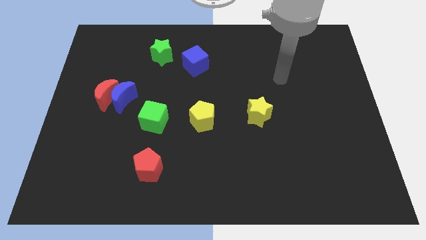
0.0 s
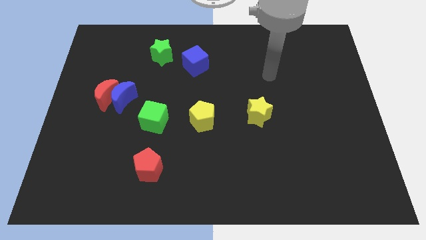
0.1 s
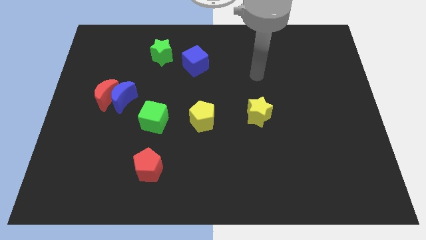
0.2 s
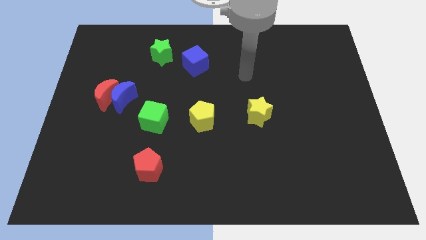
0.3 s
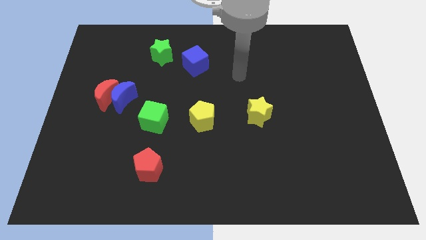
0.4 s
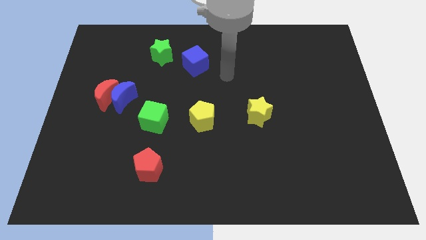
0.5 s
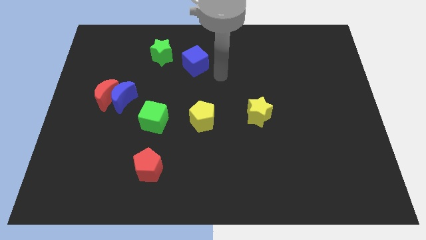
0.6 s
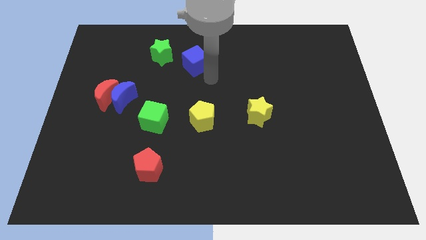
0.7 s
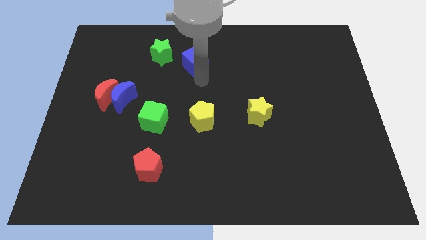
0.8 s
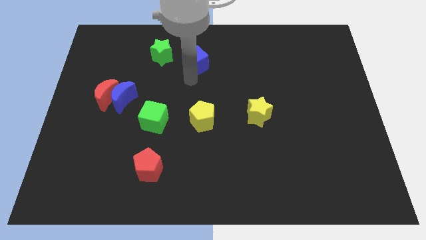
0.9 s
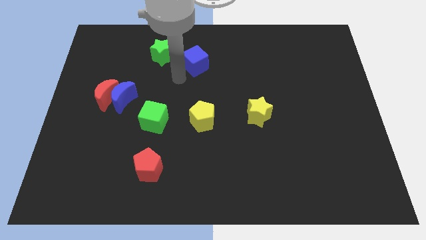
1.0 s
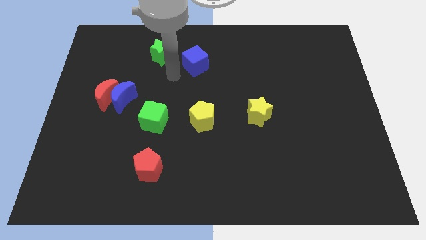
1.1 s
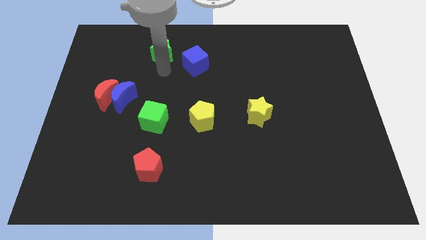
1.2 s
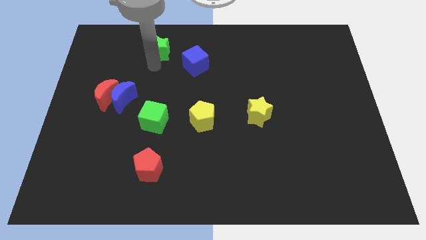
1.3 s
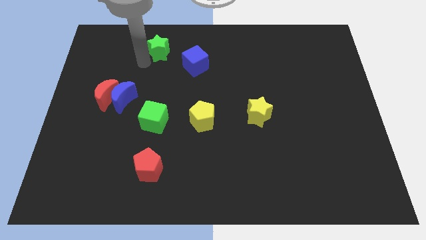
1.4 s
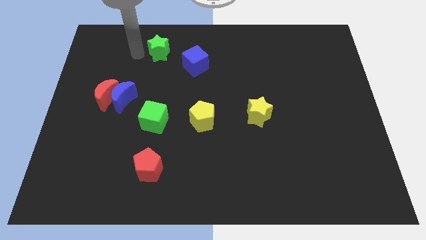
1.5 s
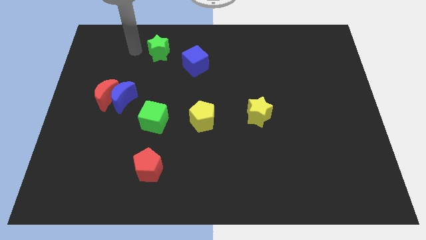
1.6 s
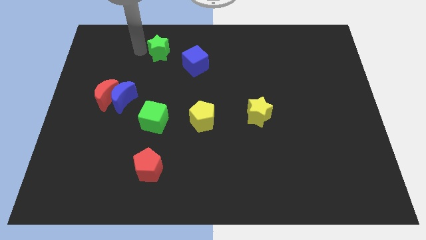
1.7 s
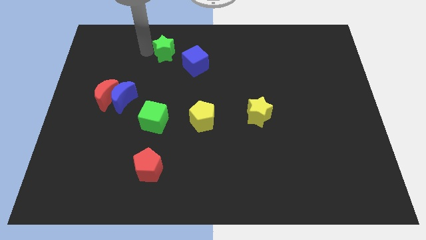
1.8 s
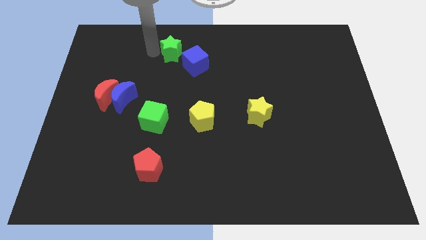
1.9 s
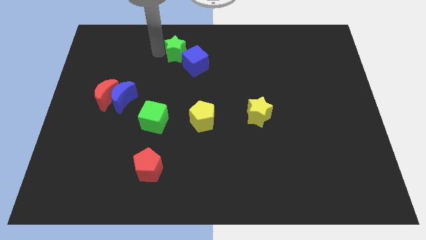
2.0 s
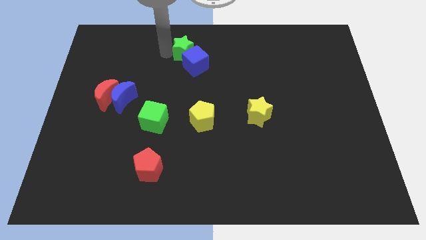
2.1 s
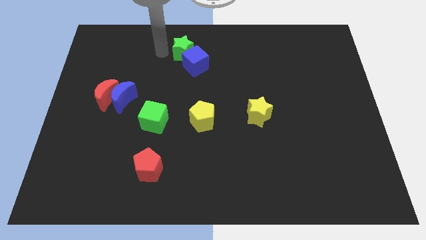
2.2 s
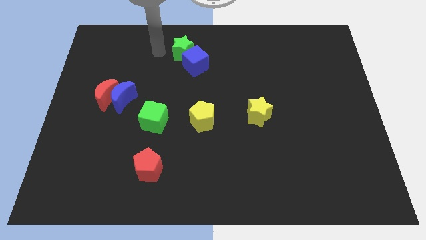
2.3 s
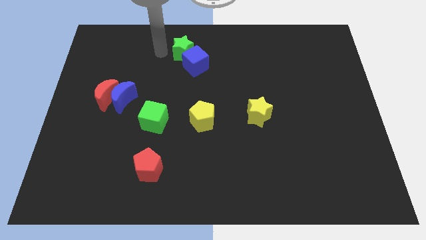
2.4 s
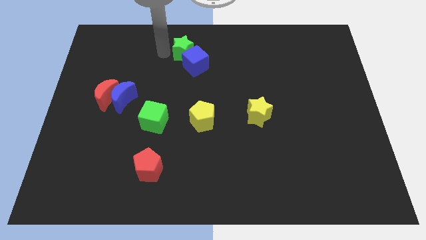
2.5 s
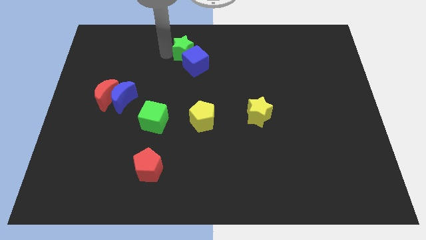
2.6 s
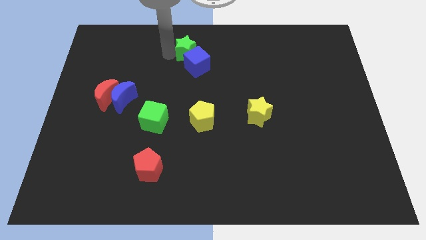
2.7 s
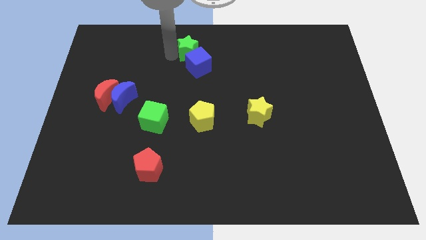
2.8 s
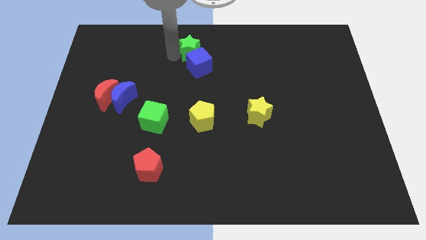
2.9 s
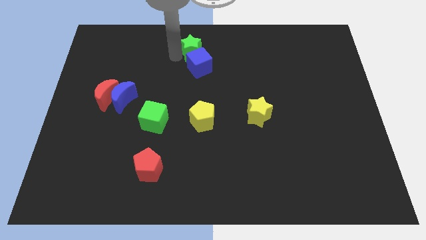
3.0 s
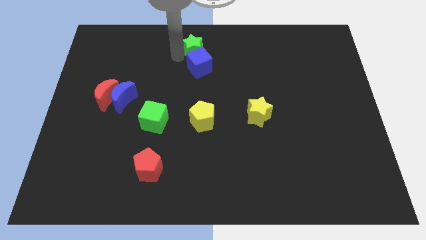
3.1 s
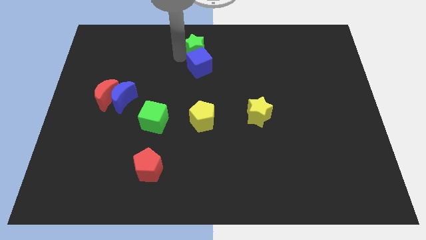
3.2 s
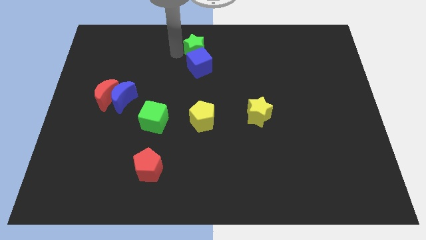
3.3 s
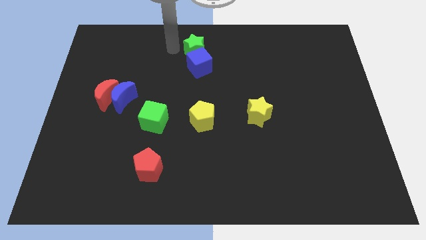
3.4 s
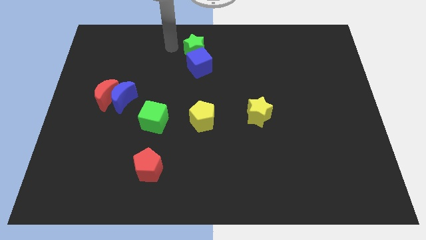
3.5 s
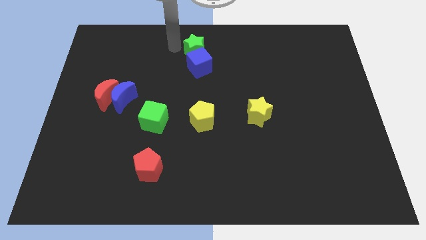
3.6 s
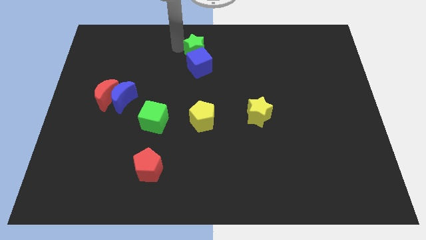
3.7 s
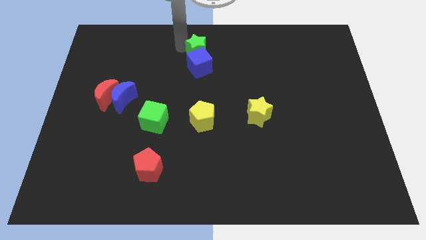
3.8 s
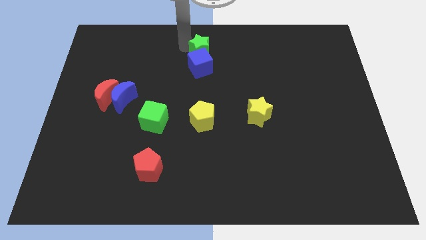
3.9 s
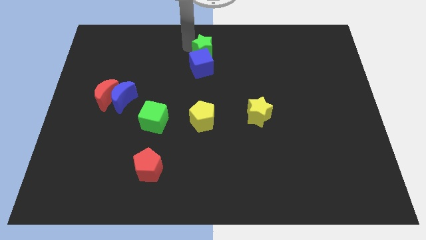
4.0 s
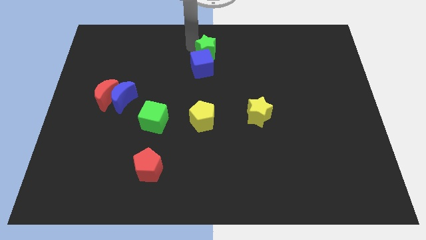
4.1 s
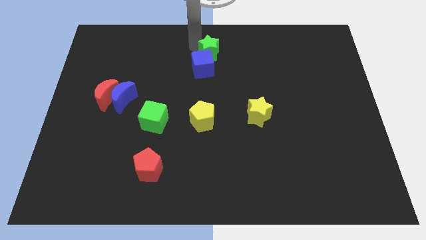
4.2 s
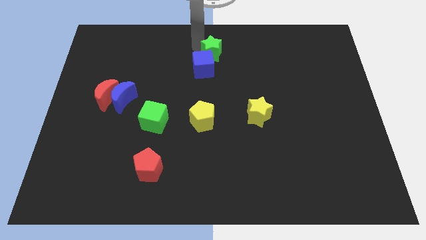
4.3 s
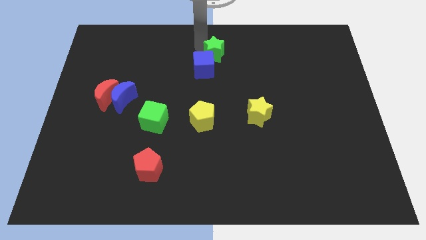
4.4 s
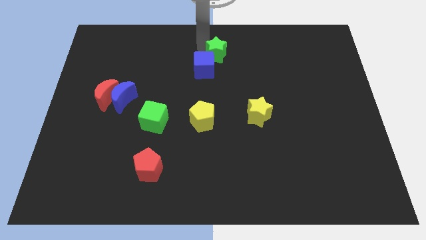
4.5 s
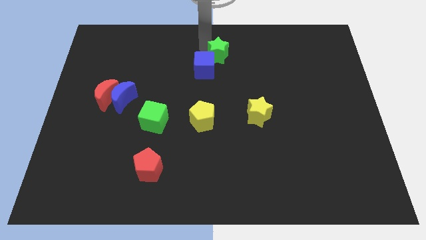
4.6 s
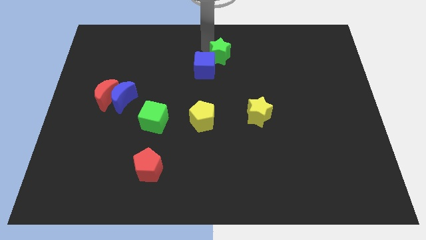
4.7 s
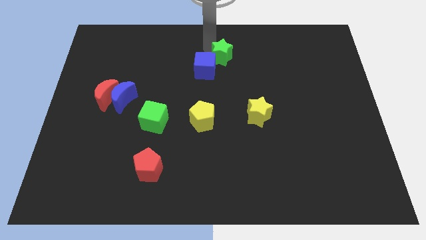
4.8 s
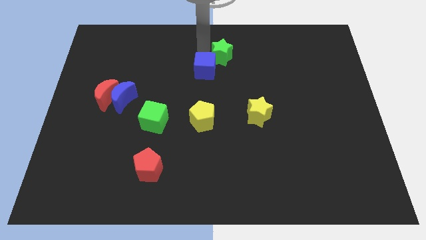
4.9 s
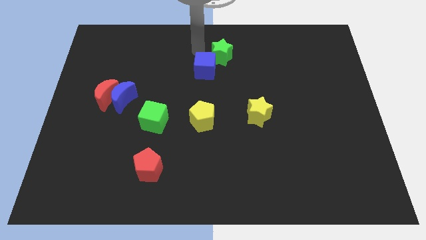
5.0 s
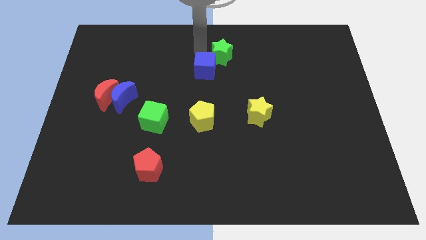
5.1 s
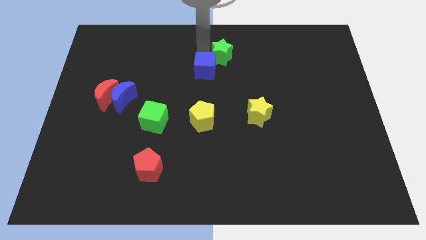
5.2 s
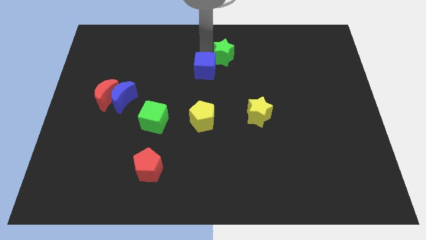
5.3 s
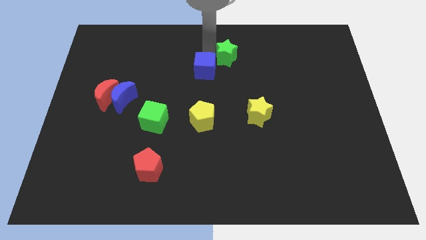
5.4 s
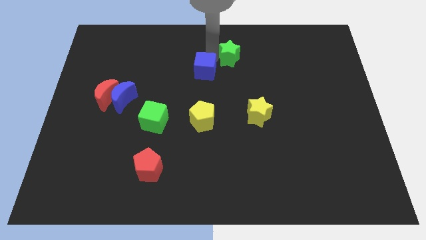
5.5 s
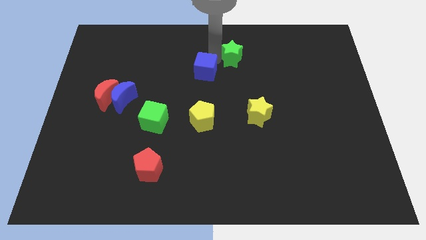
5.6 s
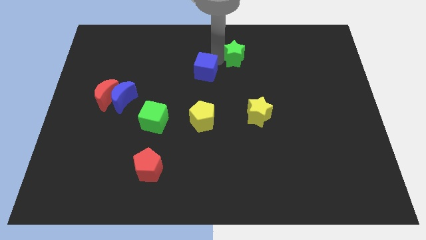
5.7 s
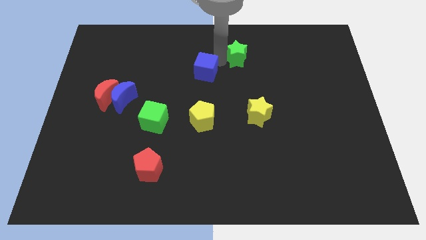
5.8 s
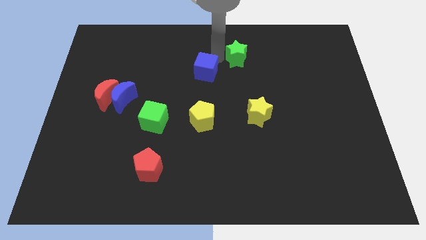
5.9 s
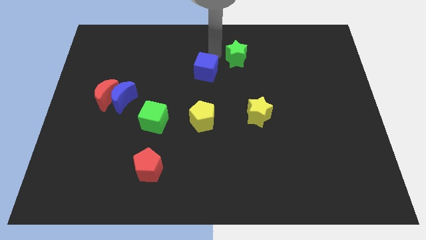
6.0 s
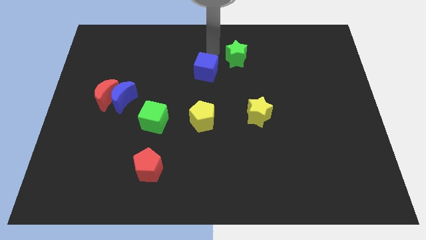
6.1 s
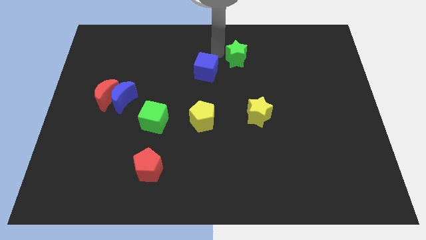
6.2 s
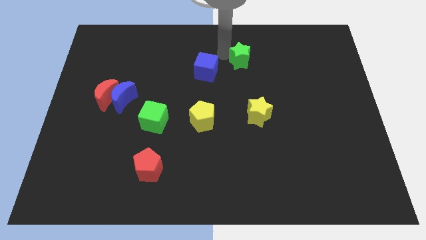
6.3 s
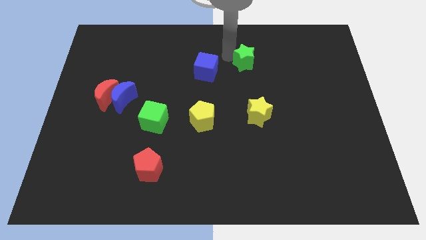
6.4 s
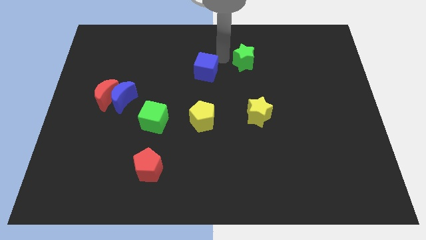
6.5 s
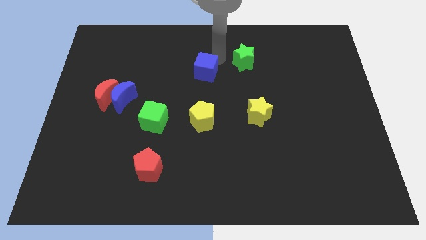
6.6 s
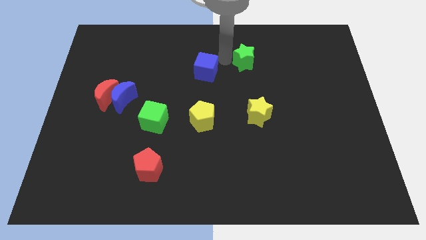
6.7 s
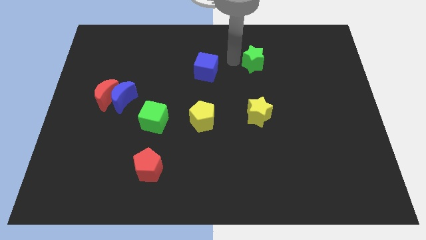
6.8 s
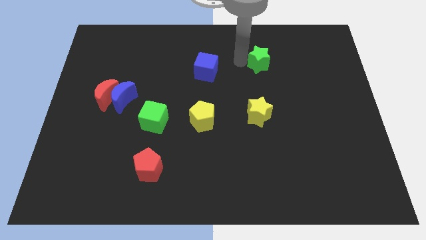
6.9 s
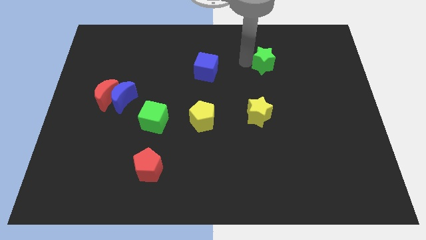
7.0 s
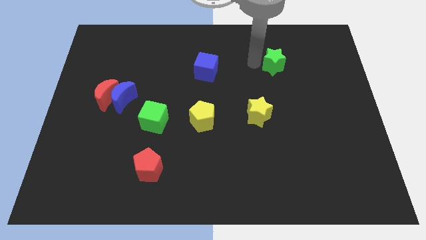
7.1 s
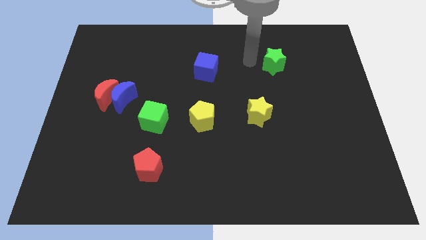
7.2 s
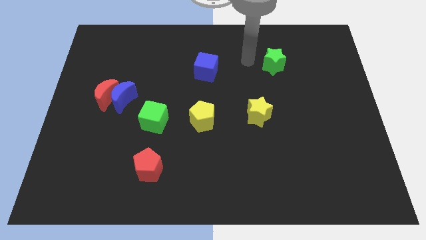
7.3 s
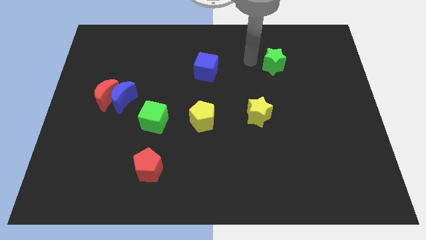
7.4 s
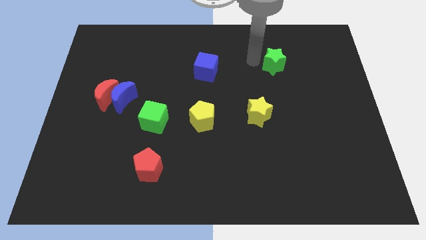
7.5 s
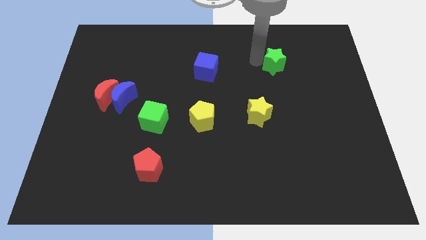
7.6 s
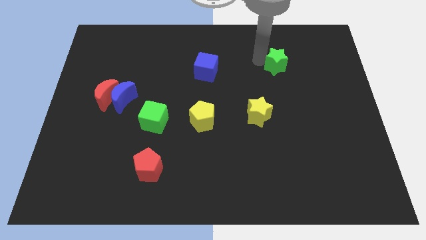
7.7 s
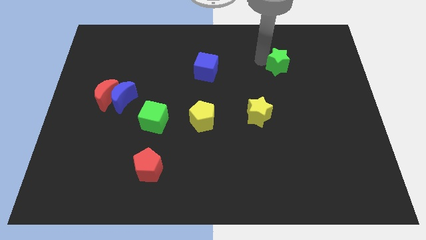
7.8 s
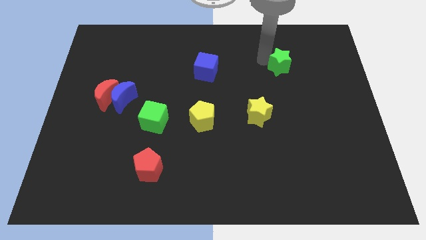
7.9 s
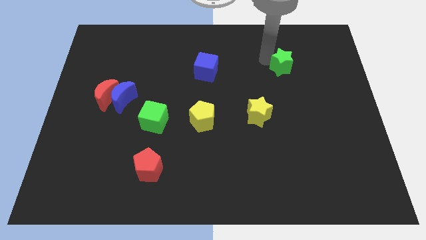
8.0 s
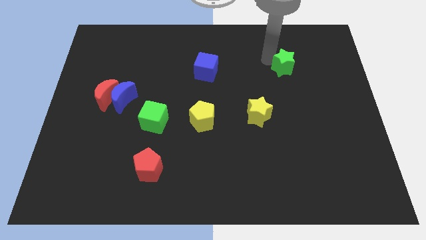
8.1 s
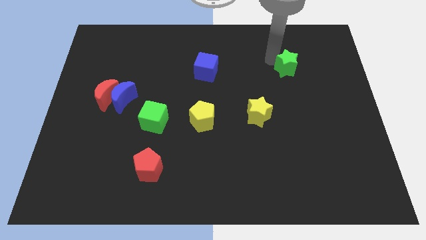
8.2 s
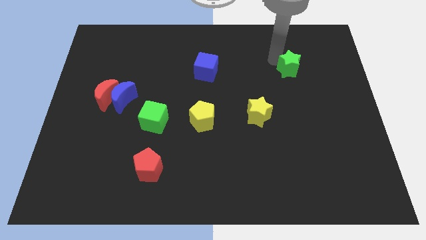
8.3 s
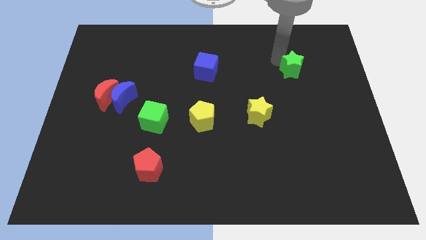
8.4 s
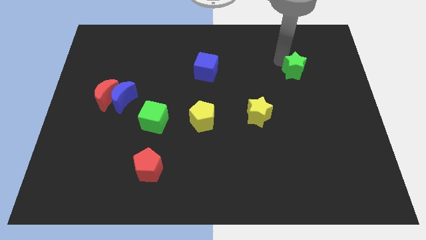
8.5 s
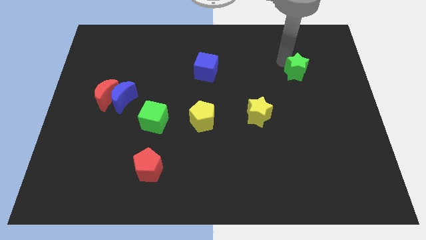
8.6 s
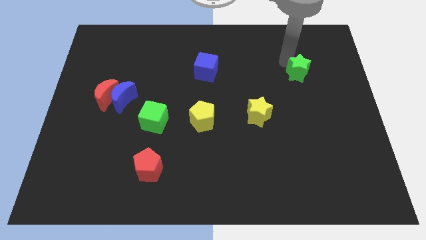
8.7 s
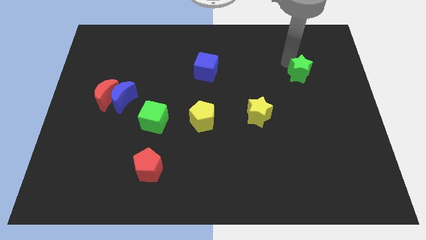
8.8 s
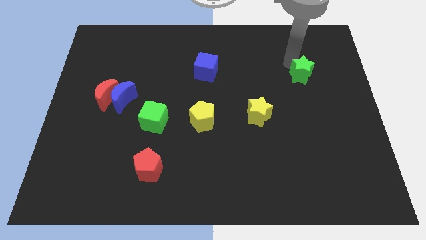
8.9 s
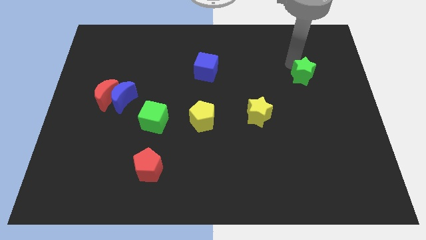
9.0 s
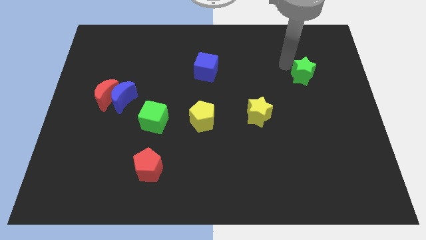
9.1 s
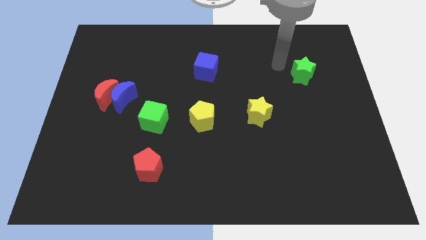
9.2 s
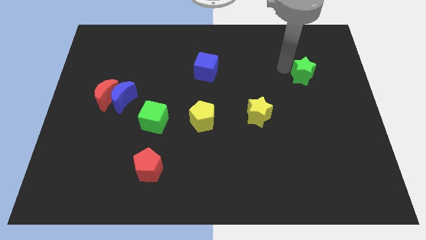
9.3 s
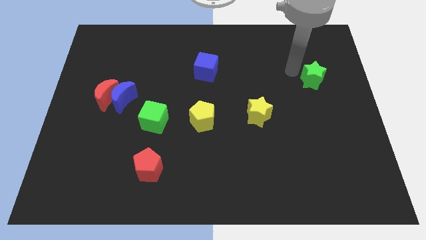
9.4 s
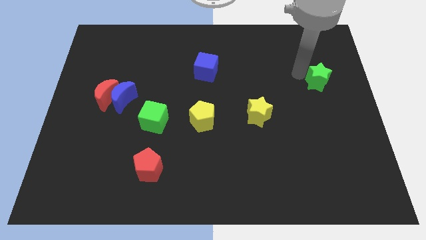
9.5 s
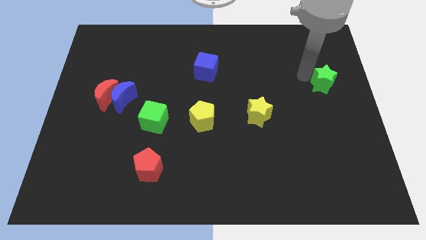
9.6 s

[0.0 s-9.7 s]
slide the green star to the right side
